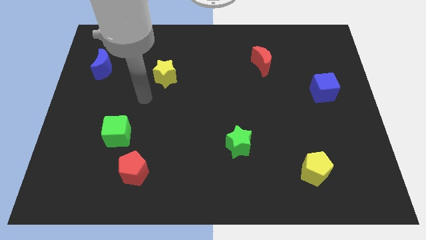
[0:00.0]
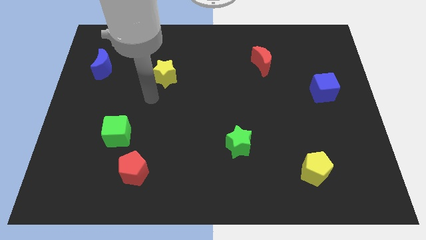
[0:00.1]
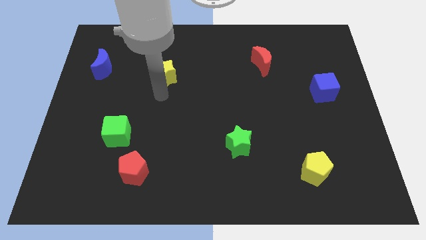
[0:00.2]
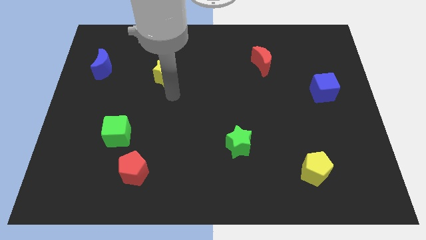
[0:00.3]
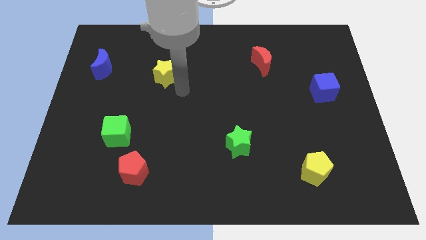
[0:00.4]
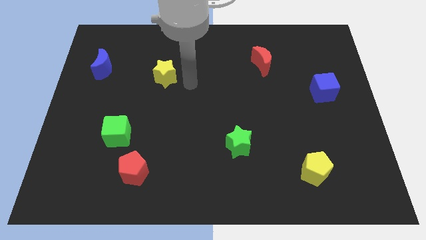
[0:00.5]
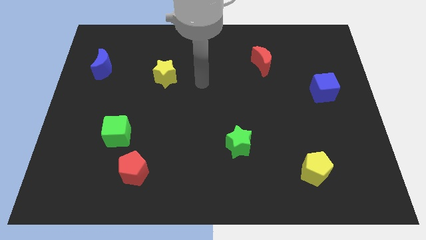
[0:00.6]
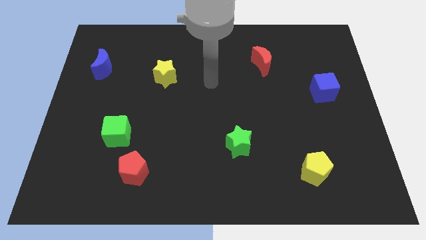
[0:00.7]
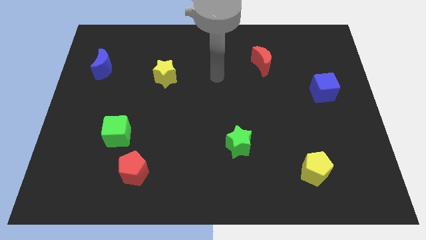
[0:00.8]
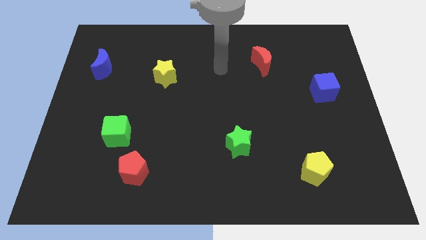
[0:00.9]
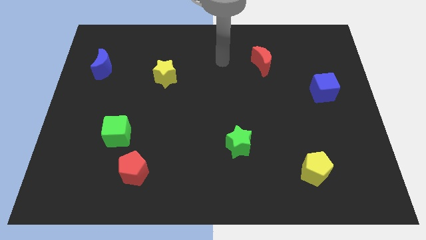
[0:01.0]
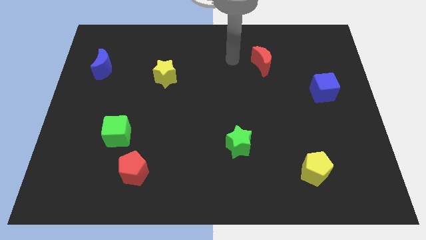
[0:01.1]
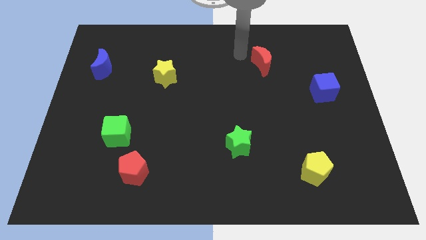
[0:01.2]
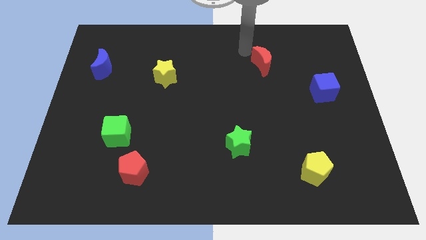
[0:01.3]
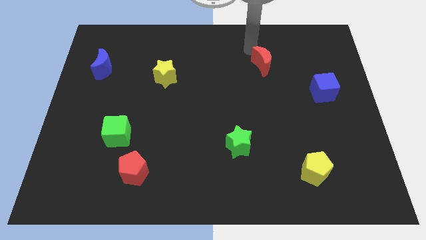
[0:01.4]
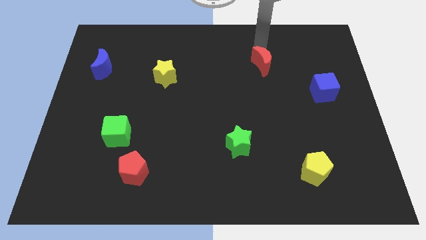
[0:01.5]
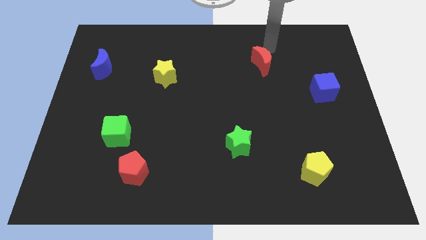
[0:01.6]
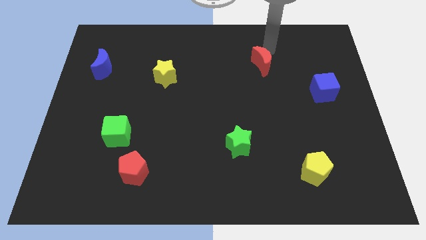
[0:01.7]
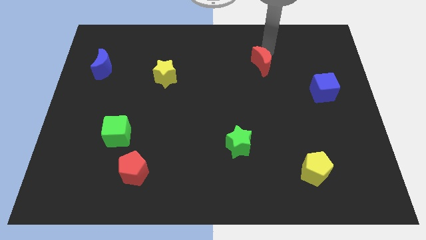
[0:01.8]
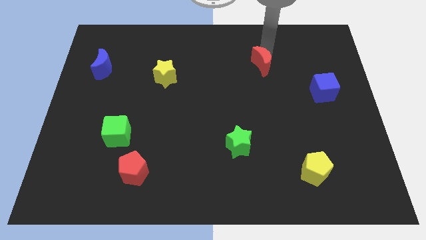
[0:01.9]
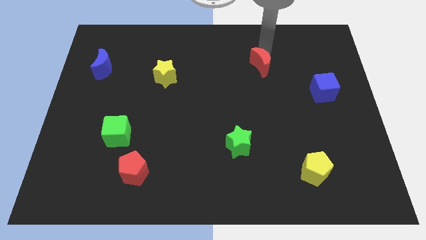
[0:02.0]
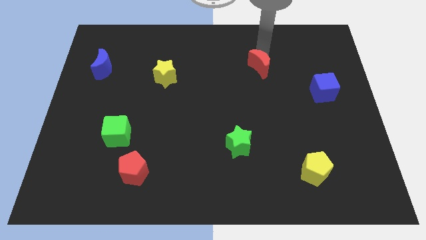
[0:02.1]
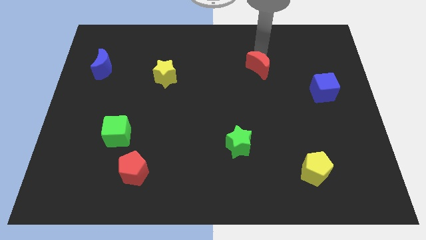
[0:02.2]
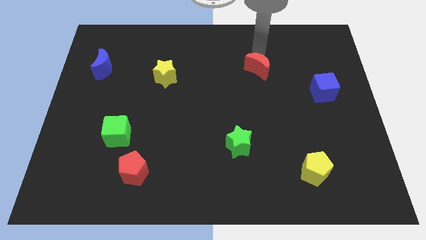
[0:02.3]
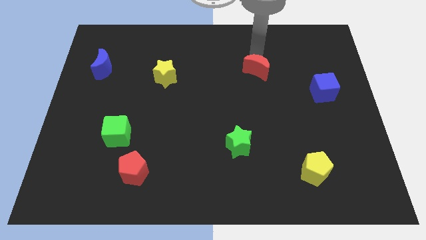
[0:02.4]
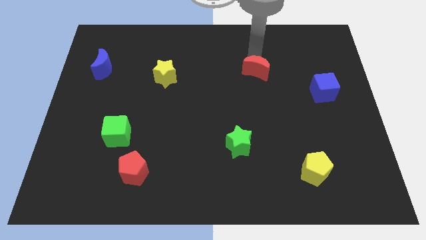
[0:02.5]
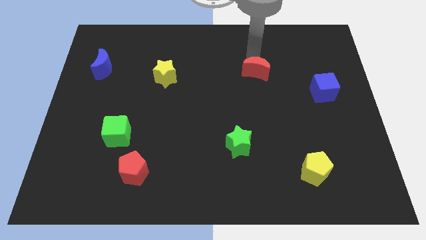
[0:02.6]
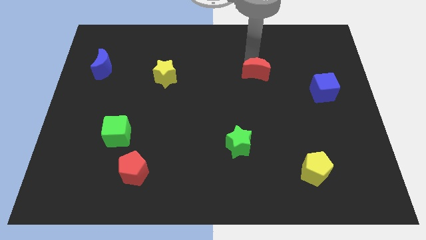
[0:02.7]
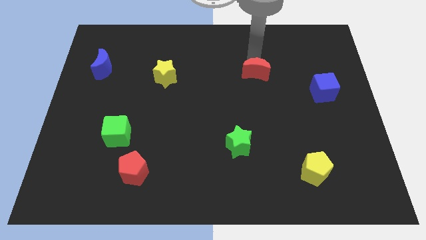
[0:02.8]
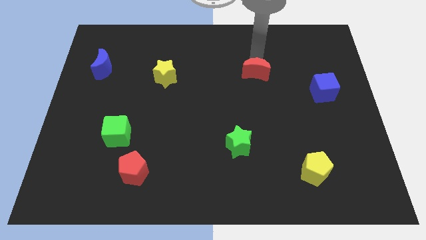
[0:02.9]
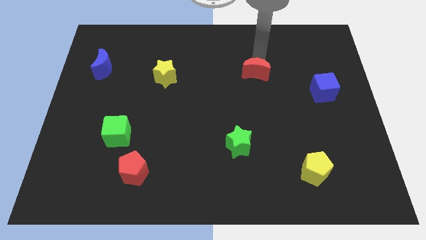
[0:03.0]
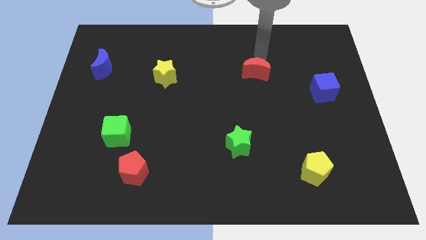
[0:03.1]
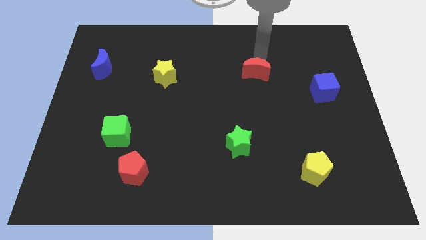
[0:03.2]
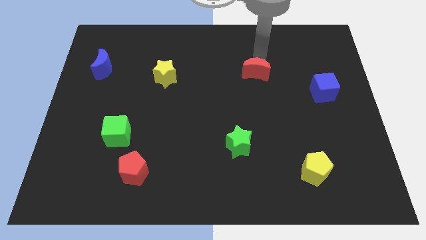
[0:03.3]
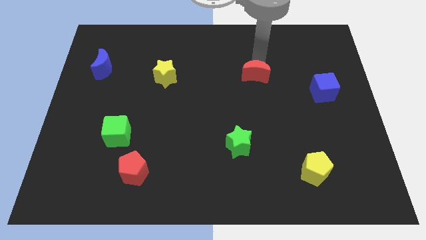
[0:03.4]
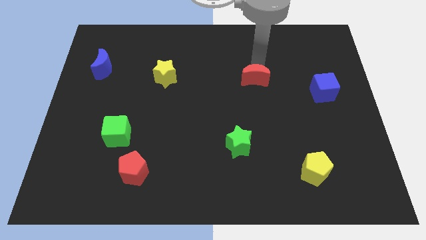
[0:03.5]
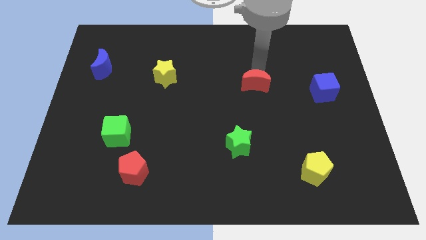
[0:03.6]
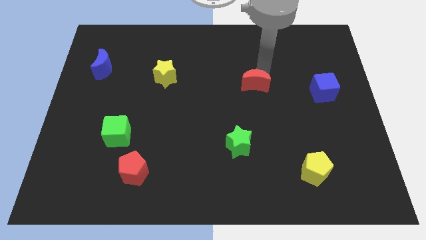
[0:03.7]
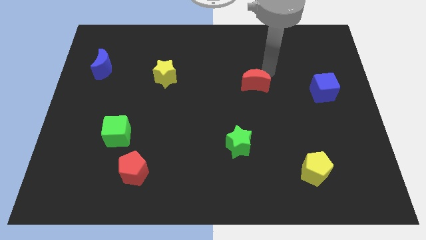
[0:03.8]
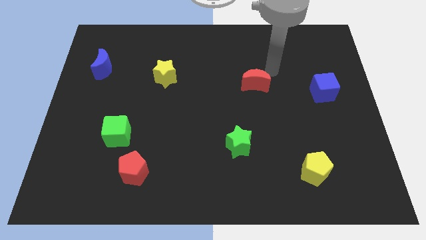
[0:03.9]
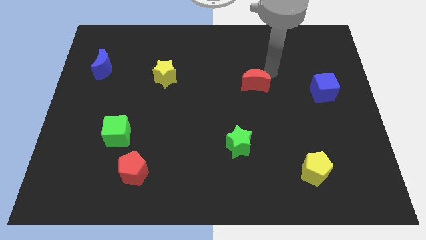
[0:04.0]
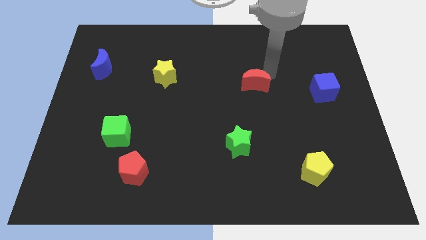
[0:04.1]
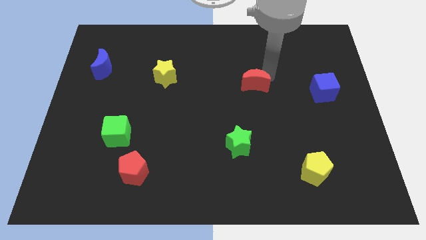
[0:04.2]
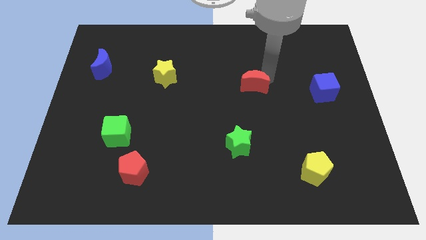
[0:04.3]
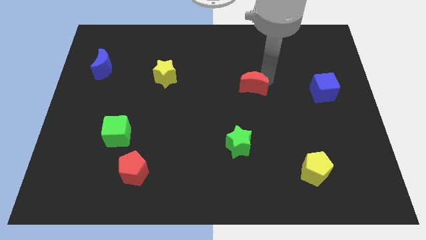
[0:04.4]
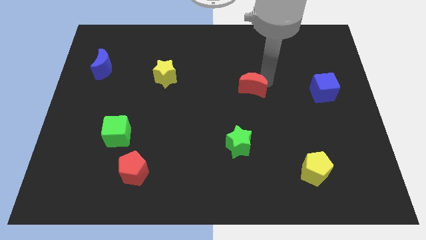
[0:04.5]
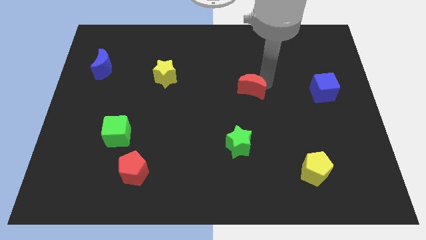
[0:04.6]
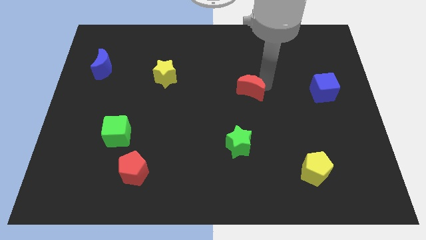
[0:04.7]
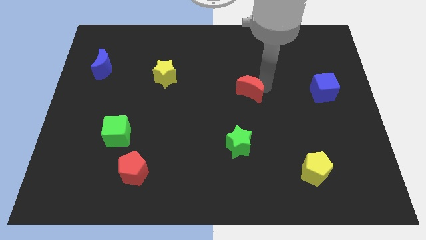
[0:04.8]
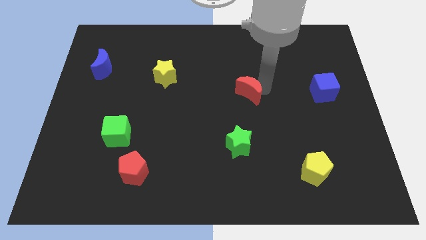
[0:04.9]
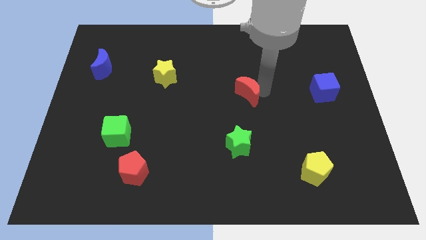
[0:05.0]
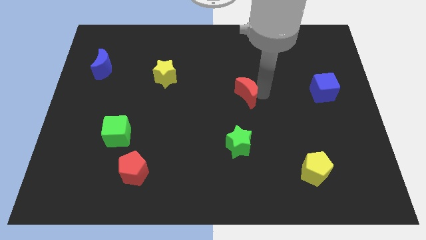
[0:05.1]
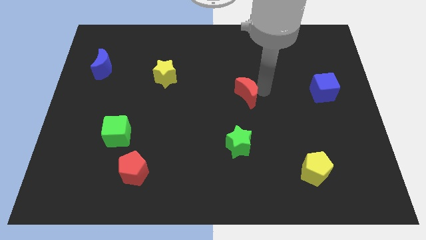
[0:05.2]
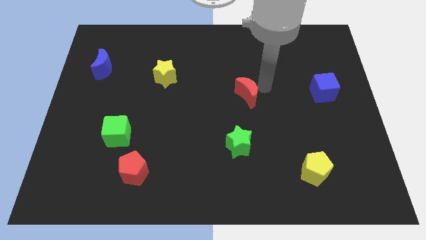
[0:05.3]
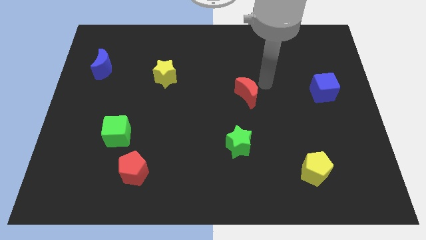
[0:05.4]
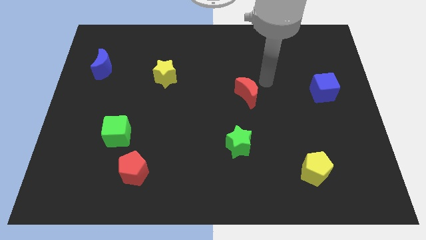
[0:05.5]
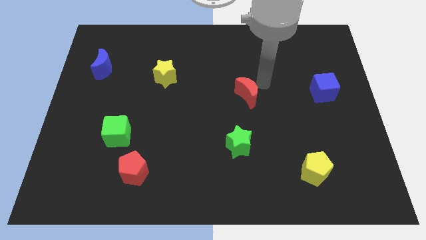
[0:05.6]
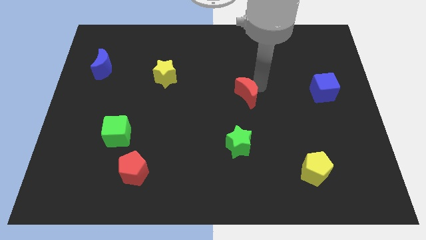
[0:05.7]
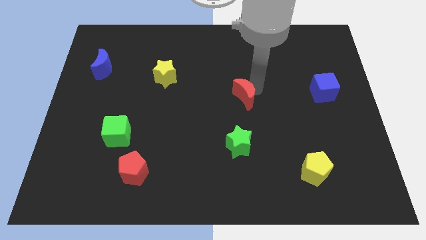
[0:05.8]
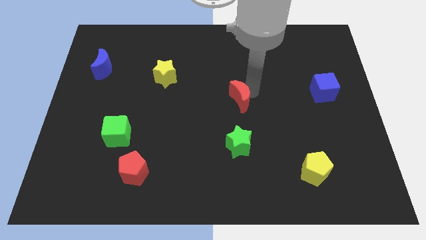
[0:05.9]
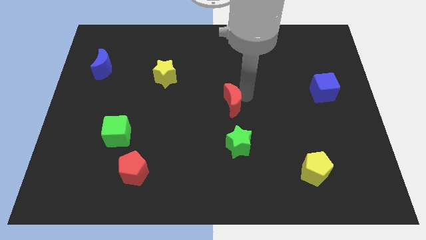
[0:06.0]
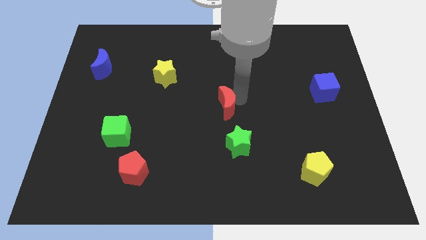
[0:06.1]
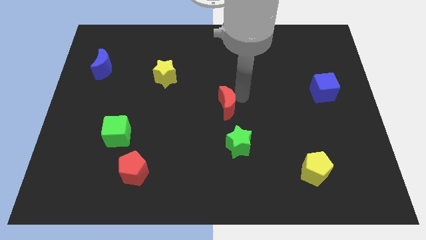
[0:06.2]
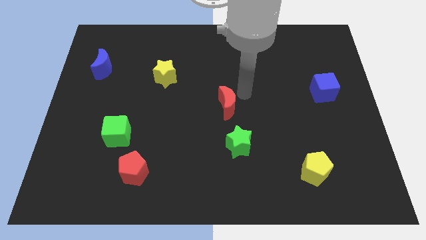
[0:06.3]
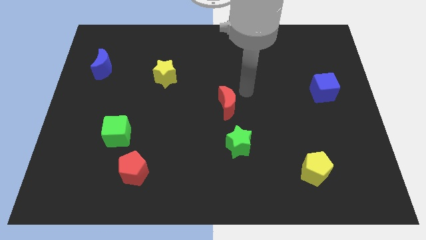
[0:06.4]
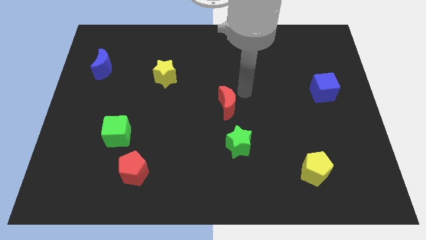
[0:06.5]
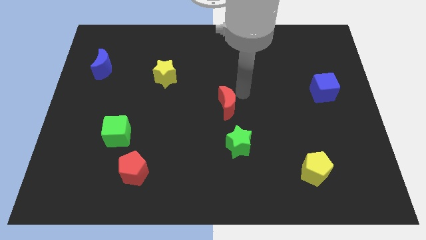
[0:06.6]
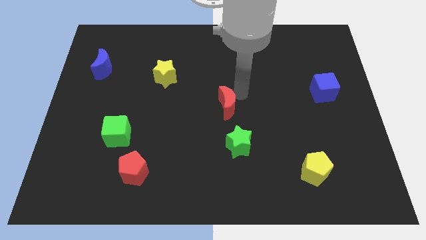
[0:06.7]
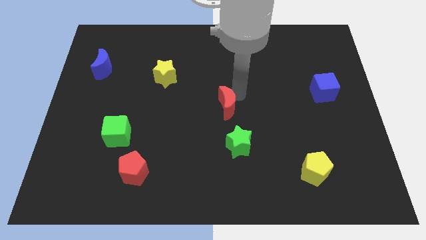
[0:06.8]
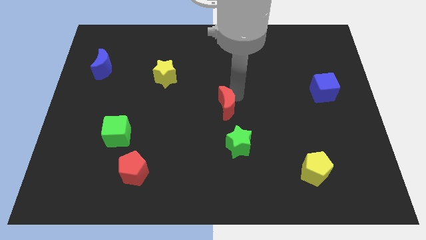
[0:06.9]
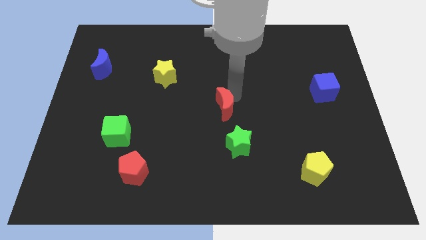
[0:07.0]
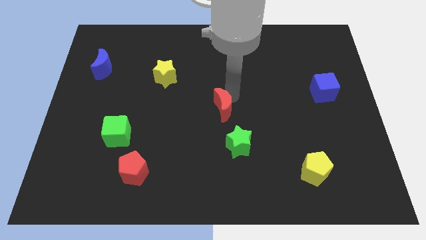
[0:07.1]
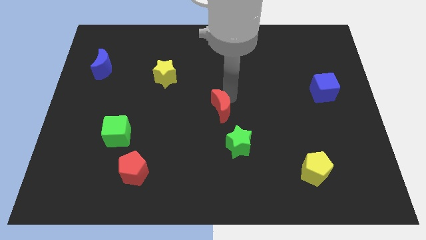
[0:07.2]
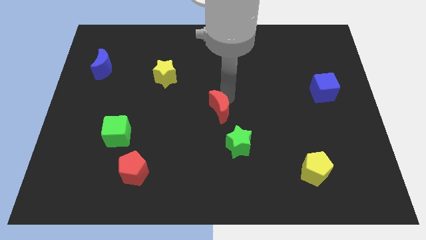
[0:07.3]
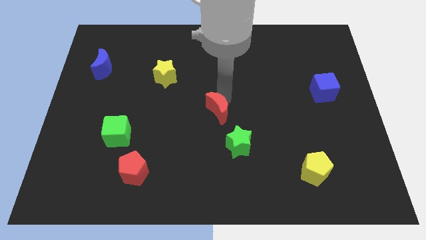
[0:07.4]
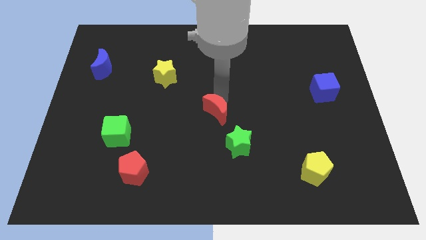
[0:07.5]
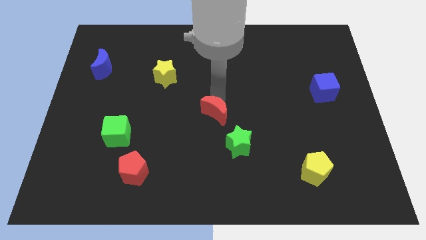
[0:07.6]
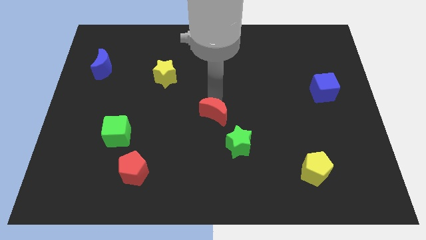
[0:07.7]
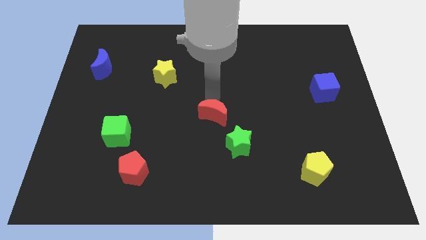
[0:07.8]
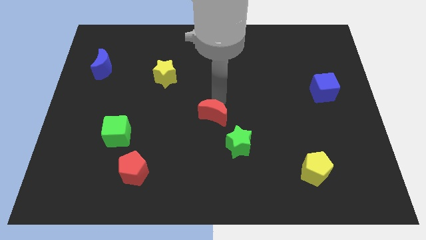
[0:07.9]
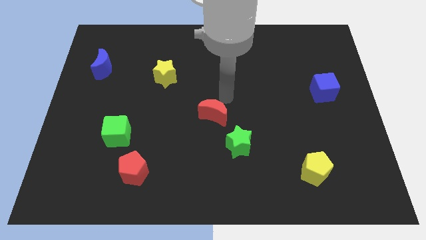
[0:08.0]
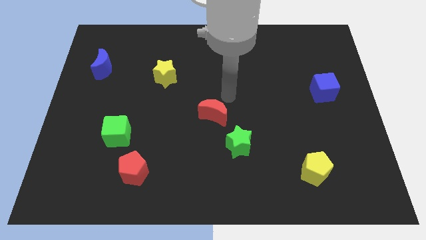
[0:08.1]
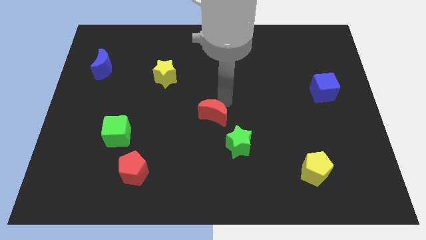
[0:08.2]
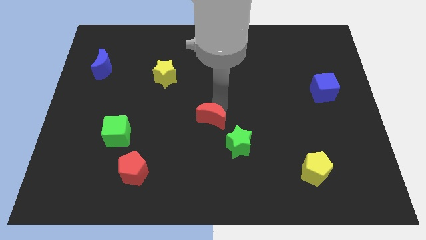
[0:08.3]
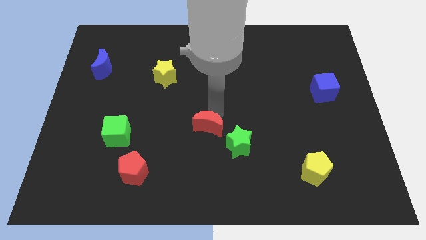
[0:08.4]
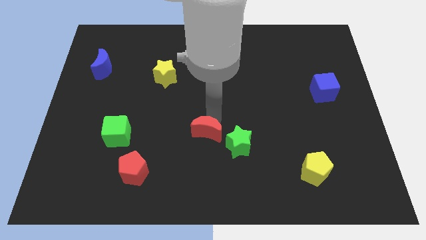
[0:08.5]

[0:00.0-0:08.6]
slide the red moon to the left side of the green star
